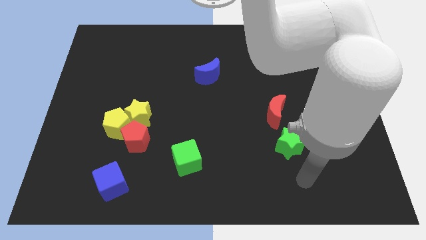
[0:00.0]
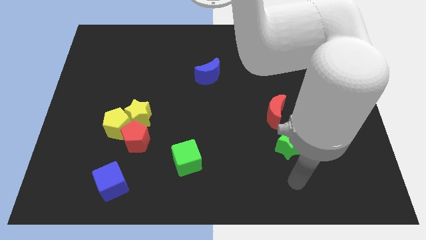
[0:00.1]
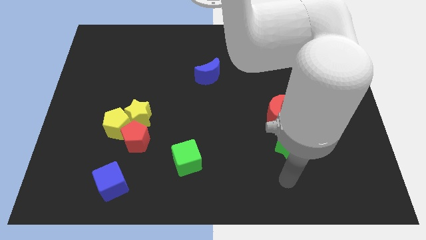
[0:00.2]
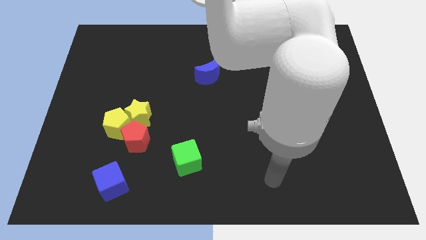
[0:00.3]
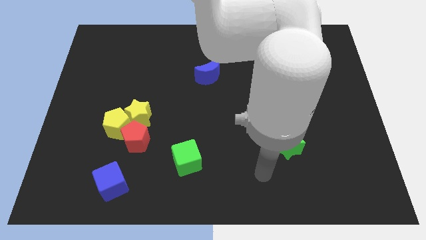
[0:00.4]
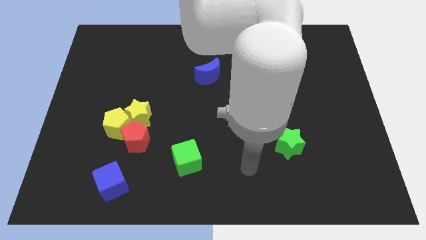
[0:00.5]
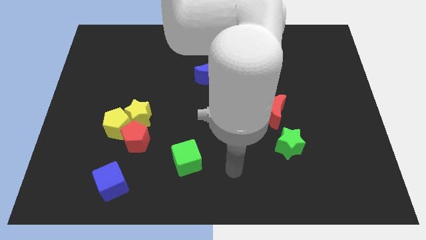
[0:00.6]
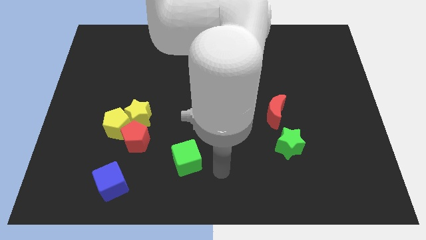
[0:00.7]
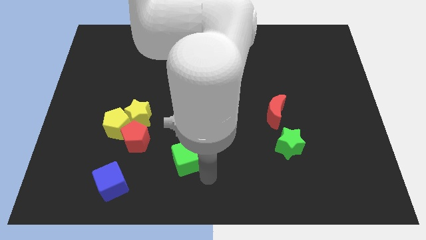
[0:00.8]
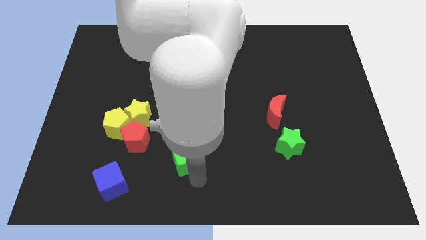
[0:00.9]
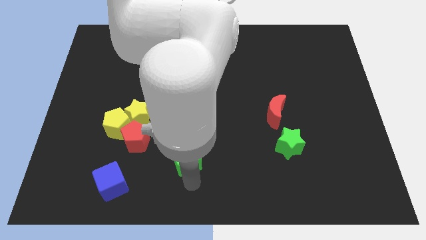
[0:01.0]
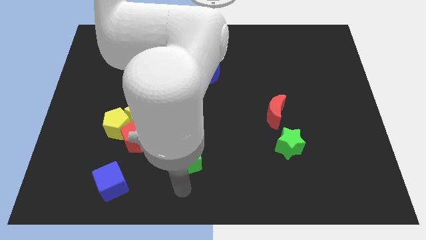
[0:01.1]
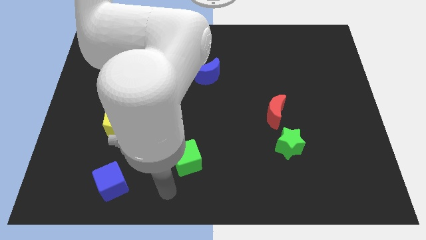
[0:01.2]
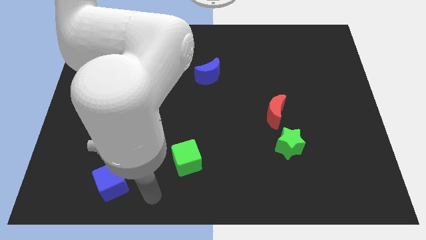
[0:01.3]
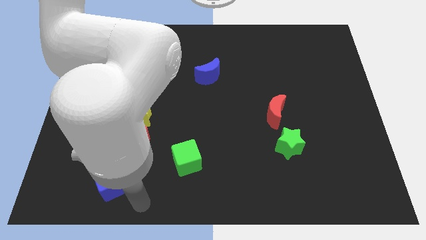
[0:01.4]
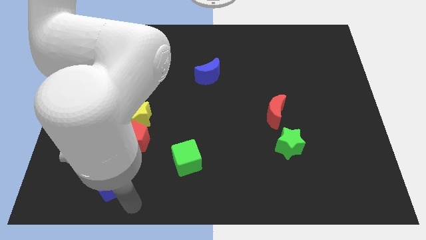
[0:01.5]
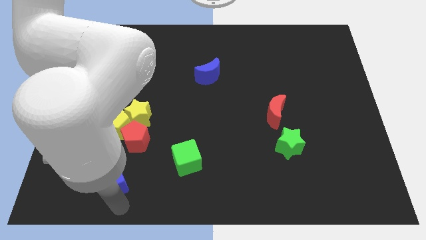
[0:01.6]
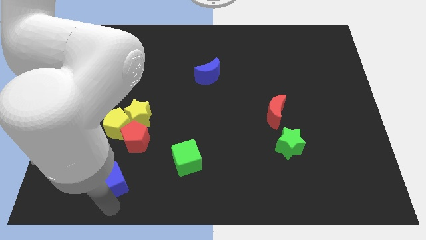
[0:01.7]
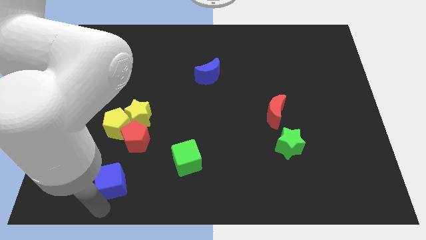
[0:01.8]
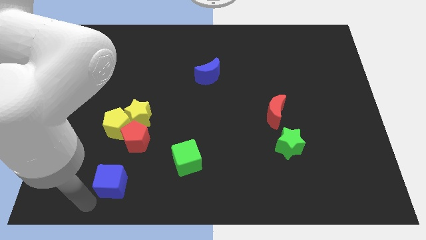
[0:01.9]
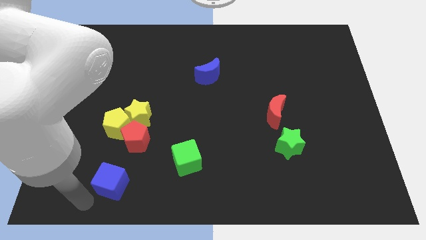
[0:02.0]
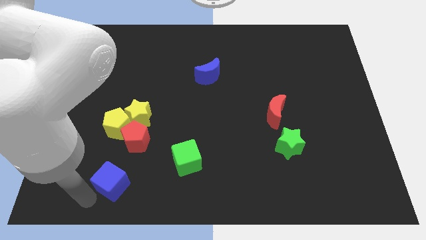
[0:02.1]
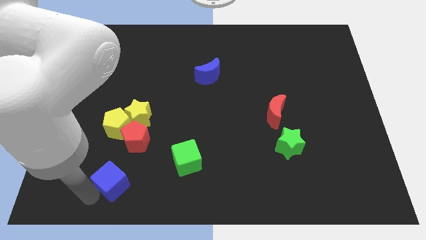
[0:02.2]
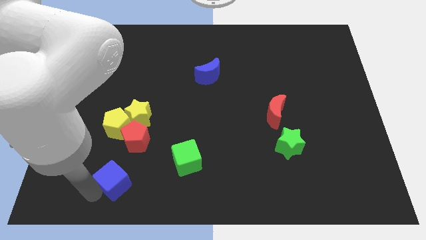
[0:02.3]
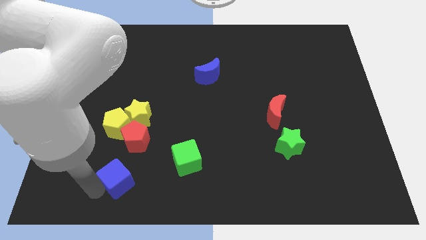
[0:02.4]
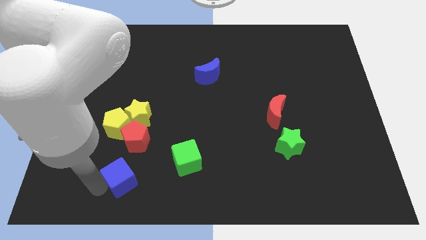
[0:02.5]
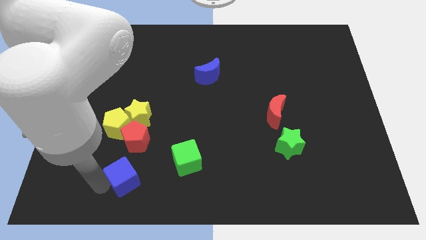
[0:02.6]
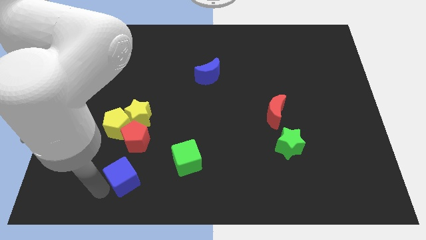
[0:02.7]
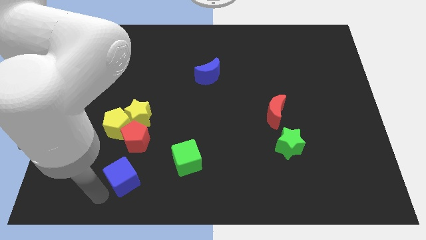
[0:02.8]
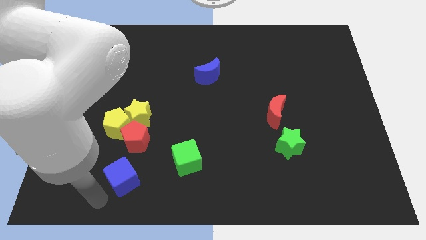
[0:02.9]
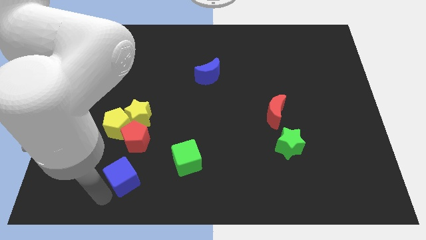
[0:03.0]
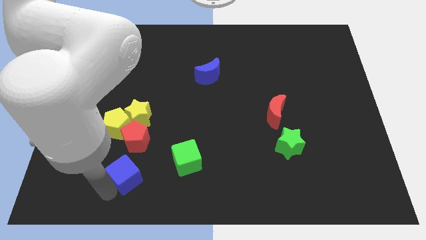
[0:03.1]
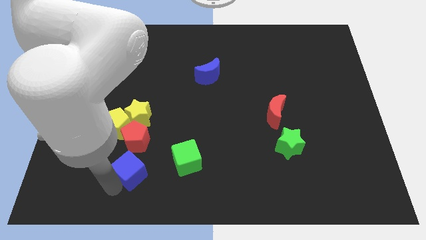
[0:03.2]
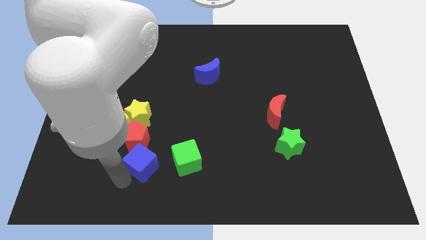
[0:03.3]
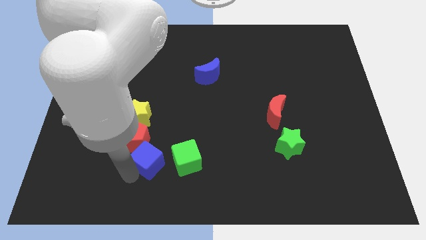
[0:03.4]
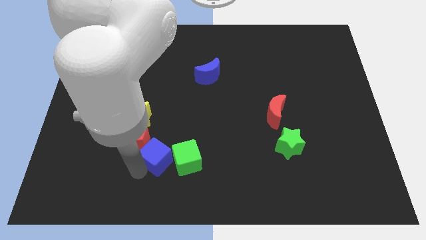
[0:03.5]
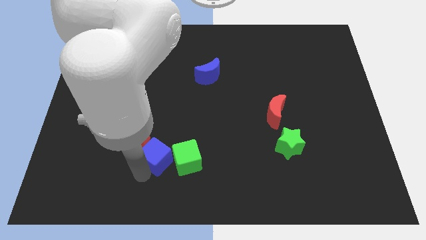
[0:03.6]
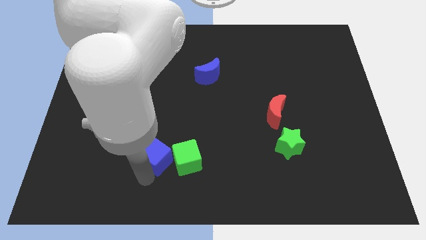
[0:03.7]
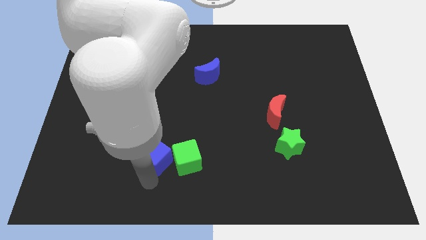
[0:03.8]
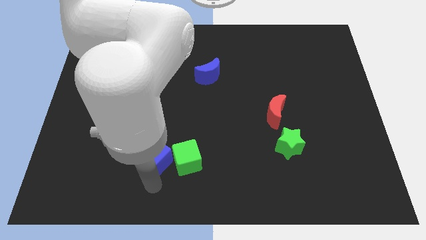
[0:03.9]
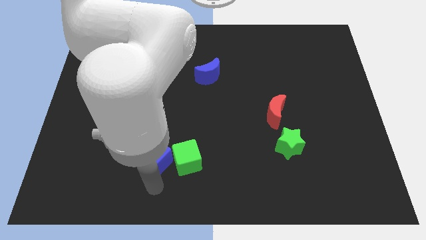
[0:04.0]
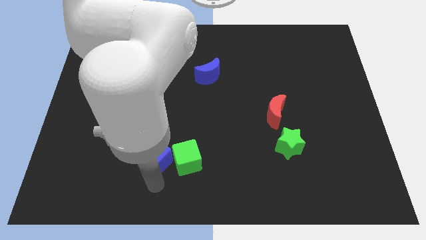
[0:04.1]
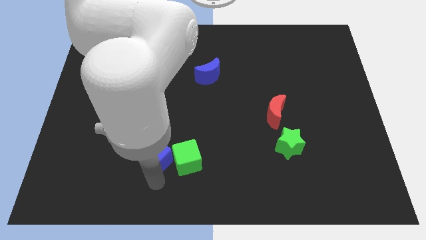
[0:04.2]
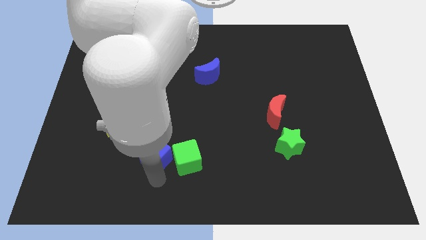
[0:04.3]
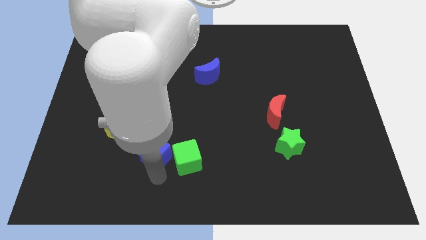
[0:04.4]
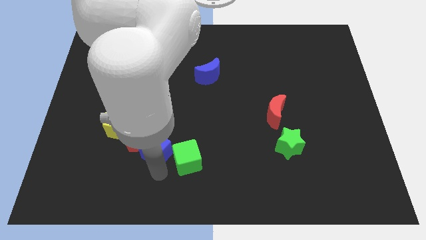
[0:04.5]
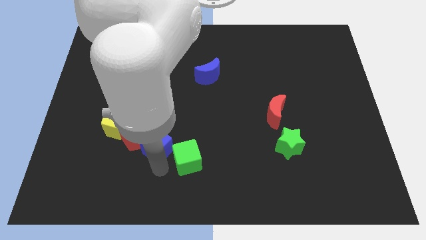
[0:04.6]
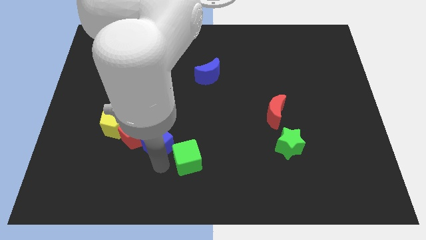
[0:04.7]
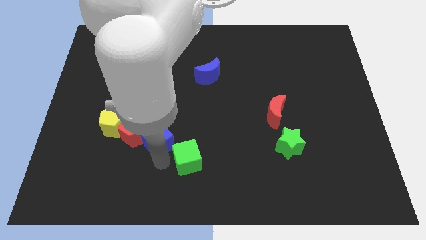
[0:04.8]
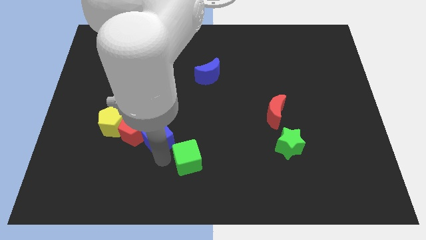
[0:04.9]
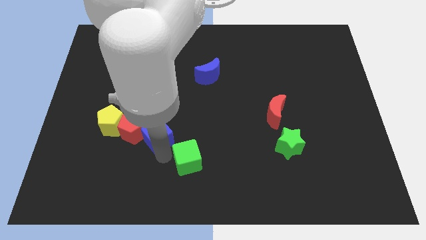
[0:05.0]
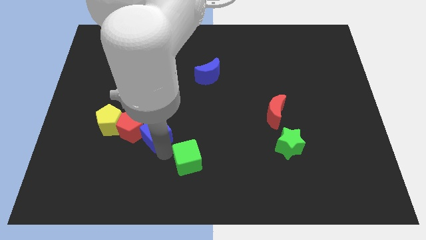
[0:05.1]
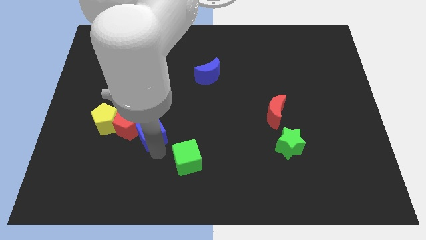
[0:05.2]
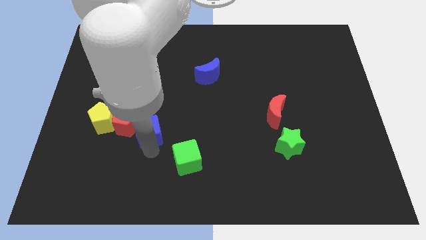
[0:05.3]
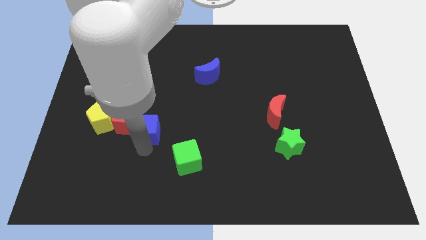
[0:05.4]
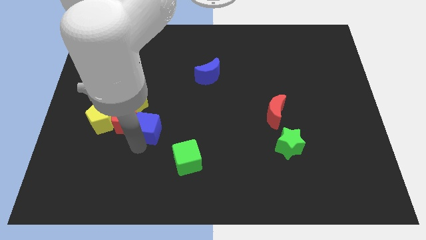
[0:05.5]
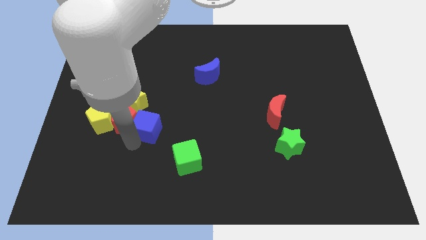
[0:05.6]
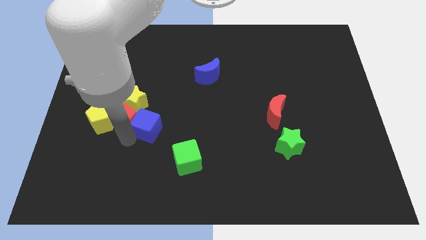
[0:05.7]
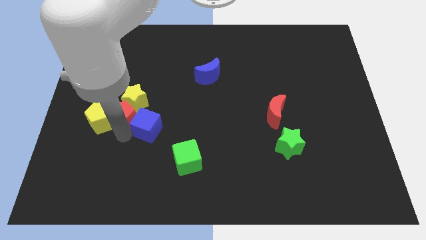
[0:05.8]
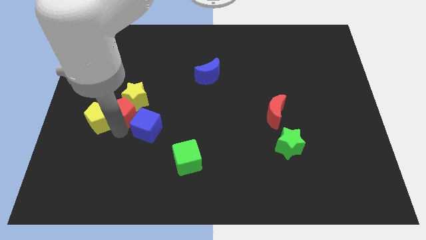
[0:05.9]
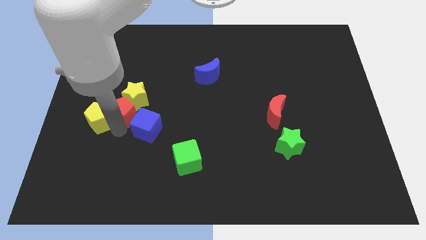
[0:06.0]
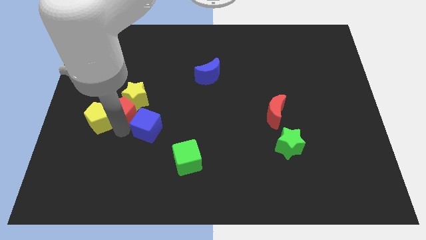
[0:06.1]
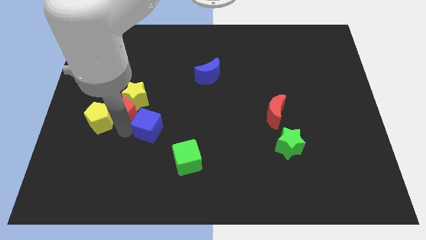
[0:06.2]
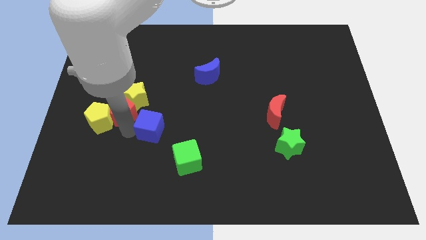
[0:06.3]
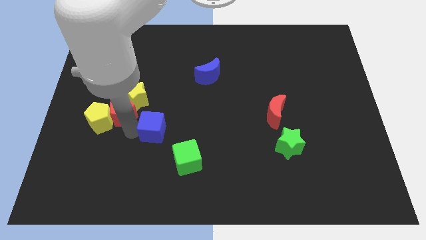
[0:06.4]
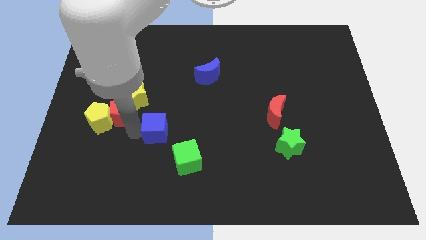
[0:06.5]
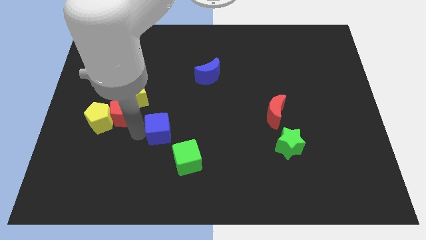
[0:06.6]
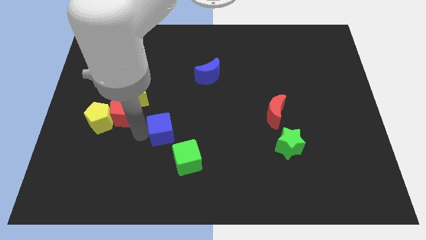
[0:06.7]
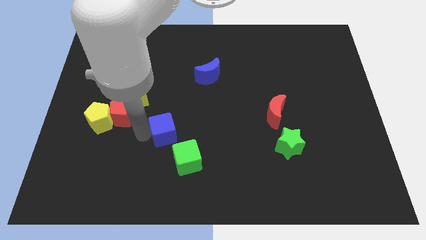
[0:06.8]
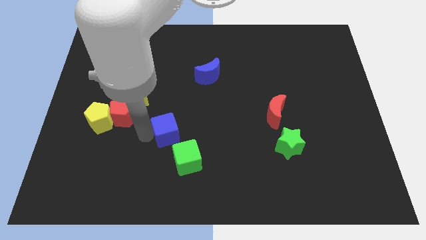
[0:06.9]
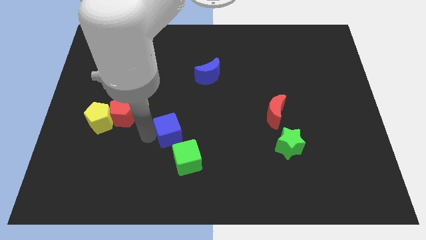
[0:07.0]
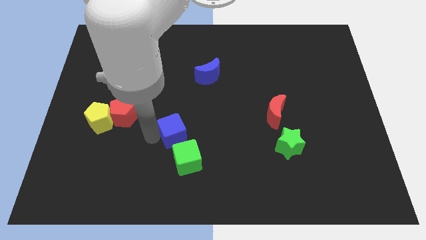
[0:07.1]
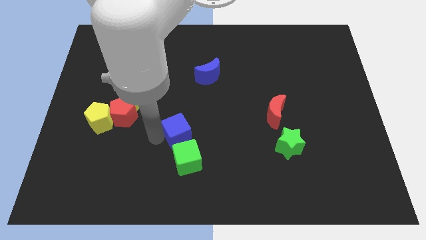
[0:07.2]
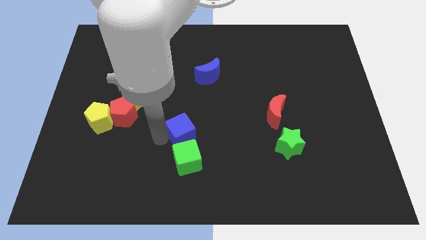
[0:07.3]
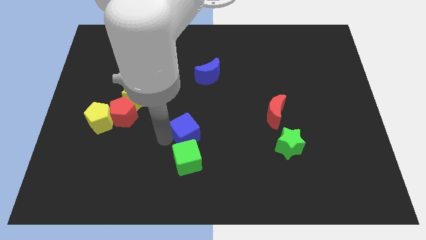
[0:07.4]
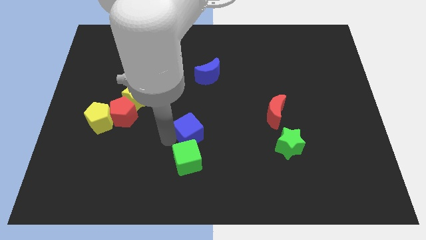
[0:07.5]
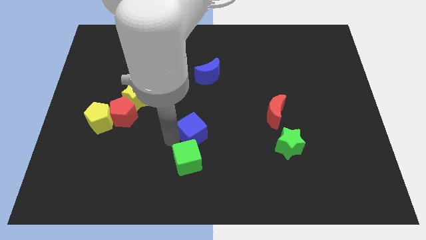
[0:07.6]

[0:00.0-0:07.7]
push the blue cube up and then to the right

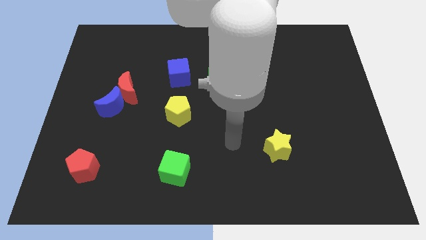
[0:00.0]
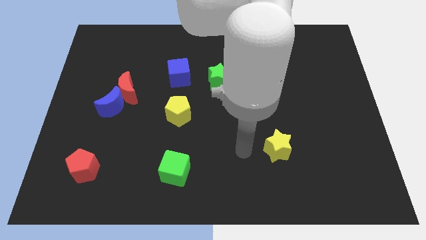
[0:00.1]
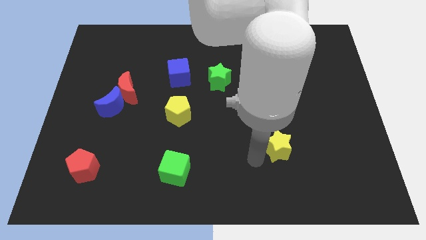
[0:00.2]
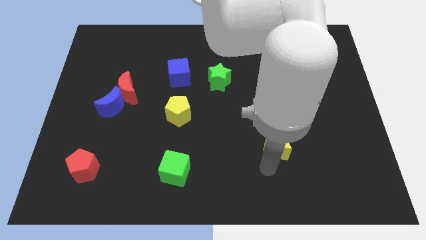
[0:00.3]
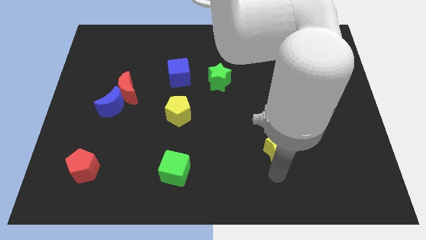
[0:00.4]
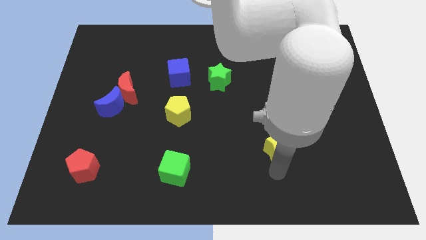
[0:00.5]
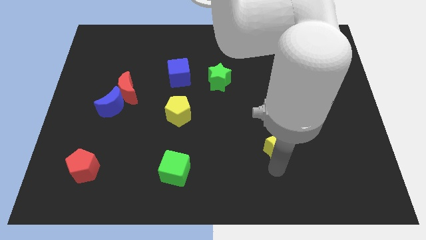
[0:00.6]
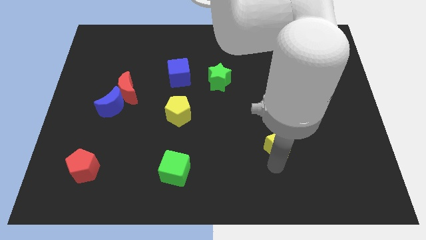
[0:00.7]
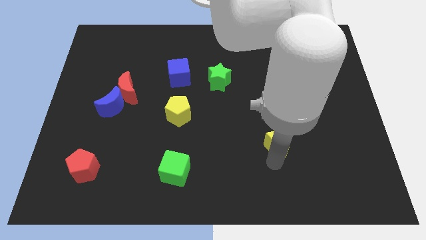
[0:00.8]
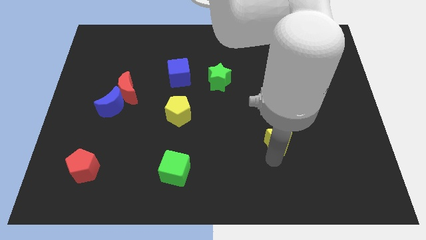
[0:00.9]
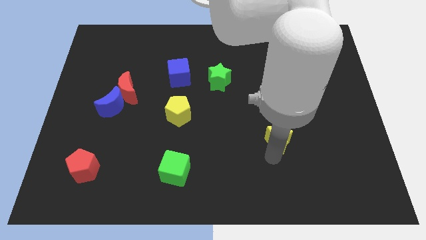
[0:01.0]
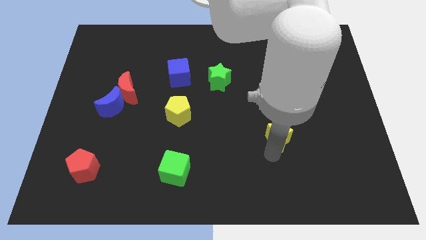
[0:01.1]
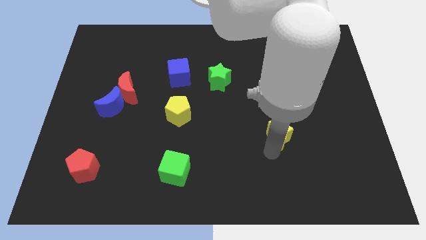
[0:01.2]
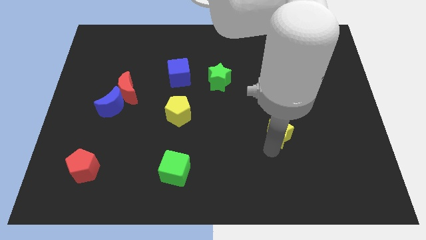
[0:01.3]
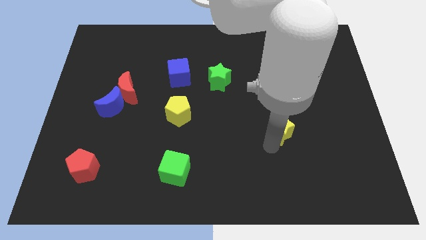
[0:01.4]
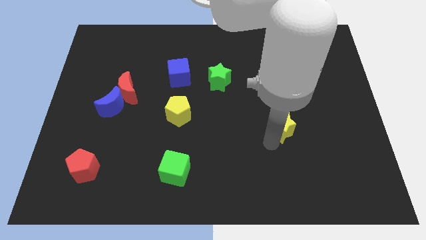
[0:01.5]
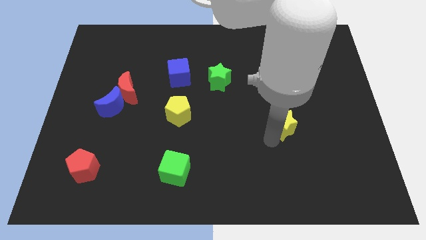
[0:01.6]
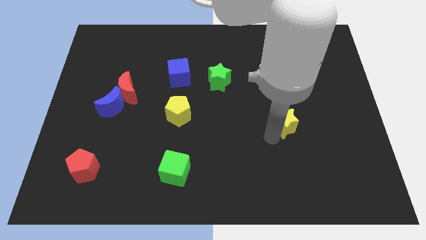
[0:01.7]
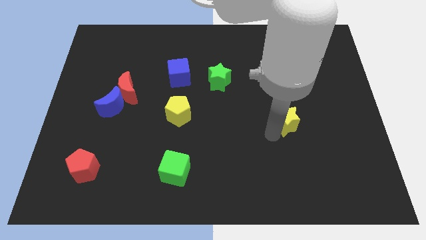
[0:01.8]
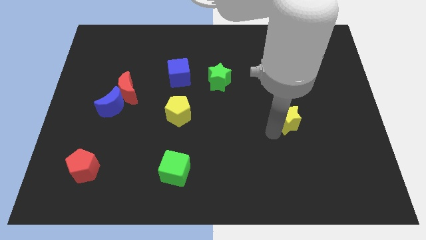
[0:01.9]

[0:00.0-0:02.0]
slightly move the yellow star diagonally up and to the right
